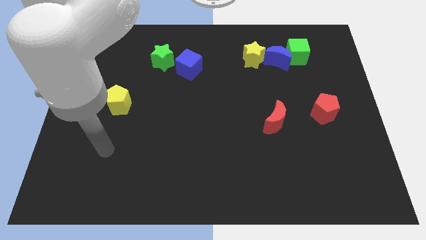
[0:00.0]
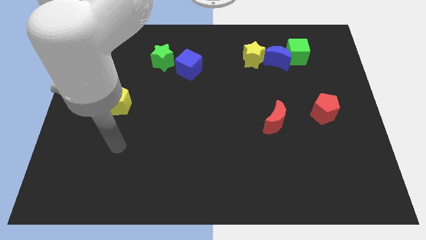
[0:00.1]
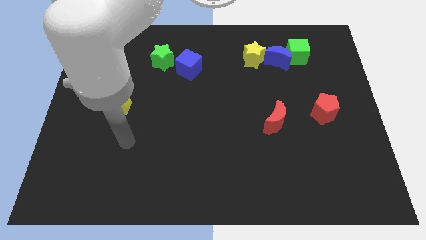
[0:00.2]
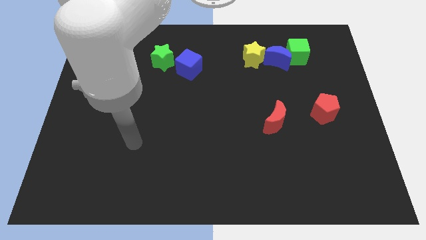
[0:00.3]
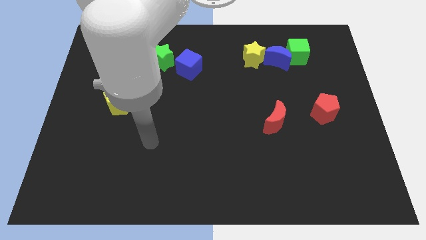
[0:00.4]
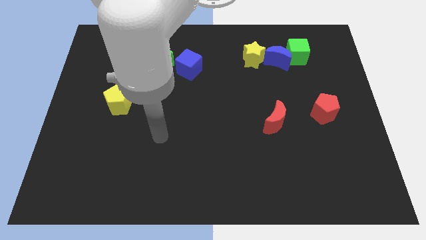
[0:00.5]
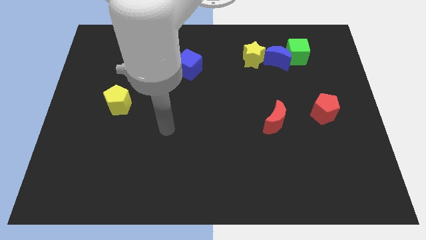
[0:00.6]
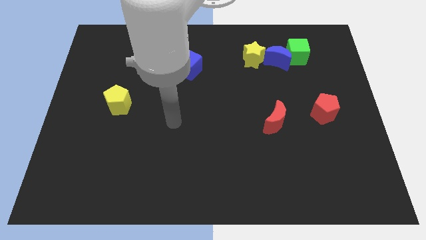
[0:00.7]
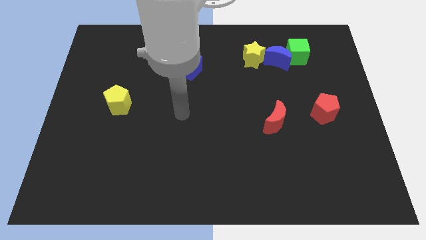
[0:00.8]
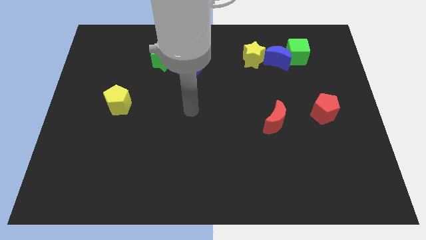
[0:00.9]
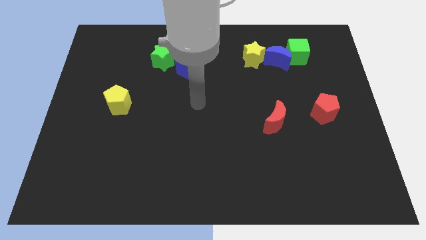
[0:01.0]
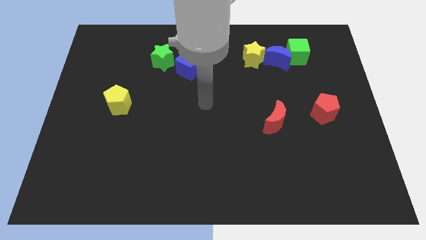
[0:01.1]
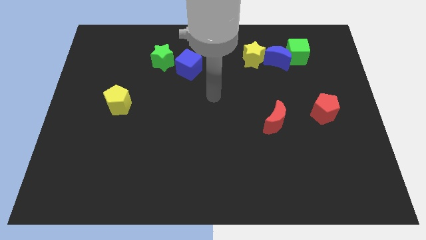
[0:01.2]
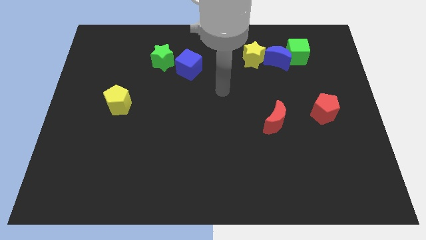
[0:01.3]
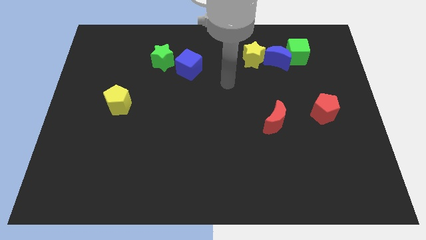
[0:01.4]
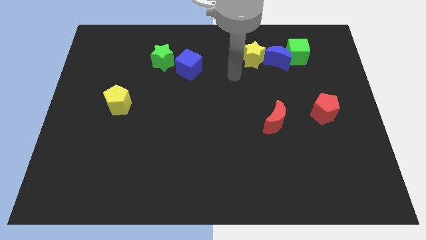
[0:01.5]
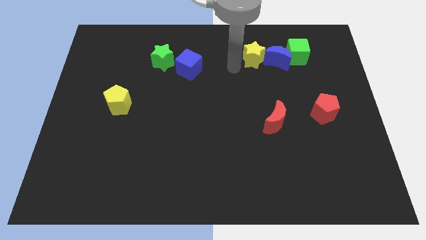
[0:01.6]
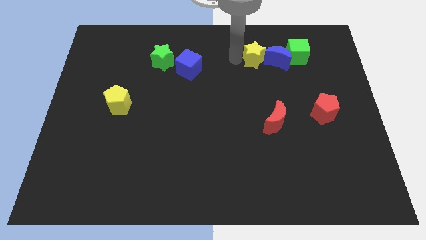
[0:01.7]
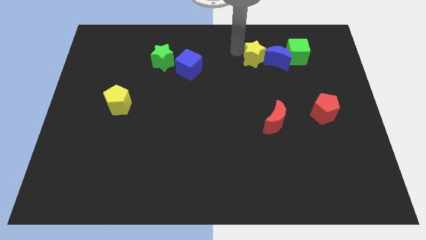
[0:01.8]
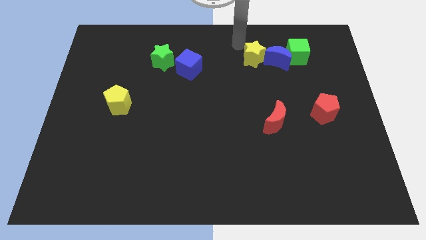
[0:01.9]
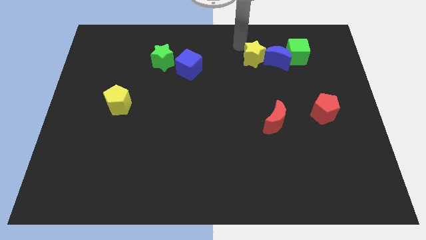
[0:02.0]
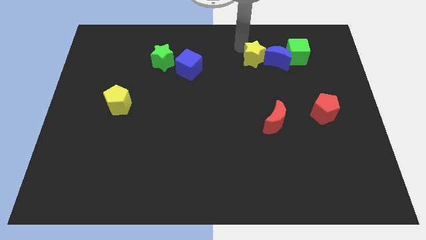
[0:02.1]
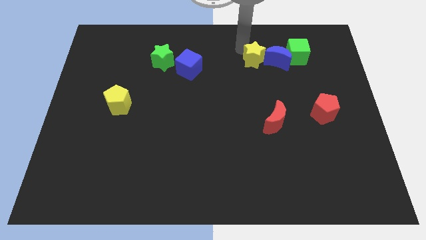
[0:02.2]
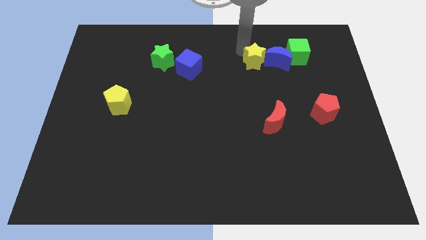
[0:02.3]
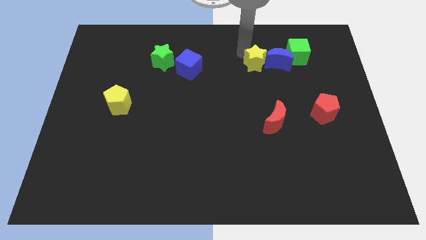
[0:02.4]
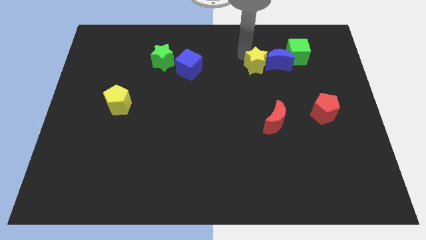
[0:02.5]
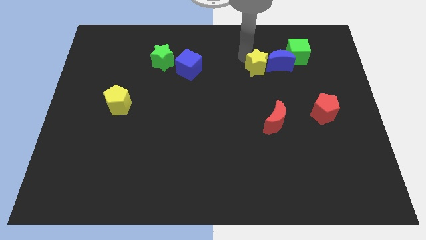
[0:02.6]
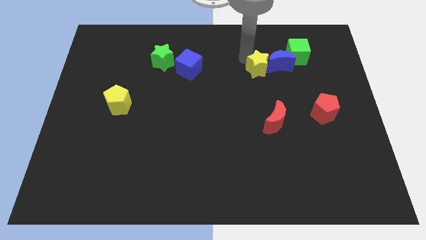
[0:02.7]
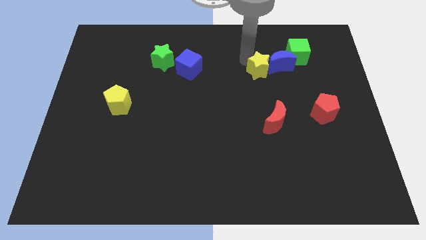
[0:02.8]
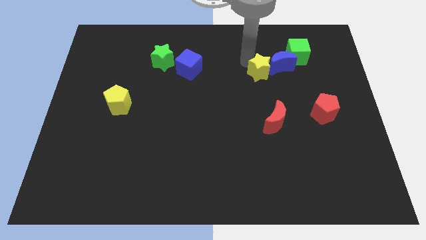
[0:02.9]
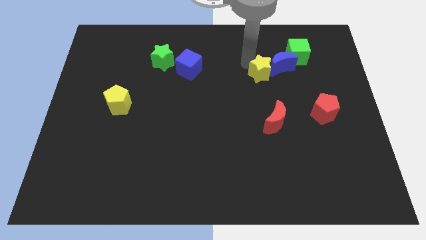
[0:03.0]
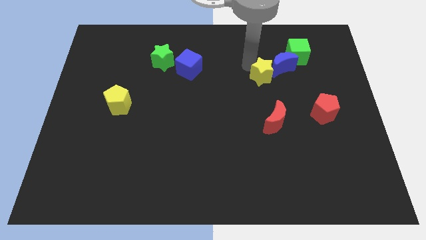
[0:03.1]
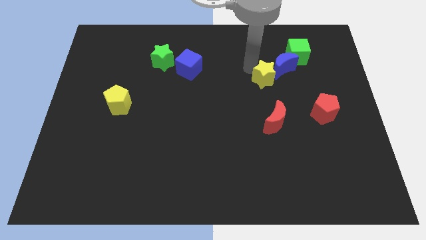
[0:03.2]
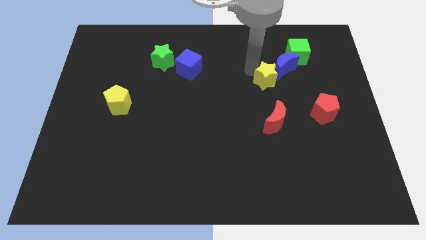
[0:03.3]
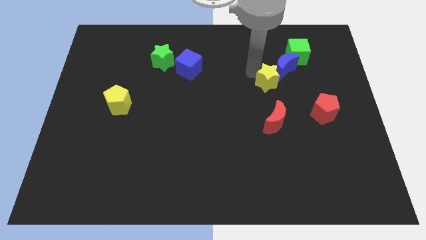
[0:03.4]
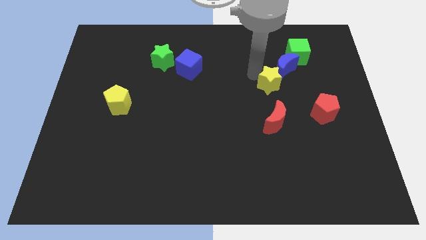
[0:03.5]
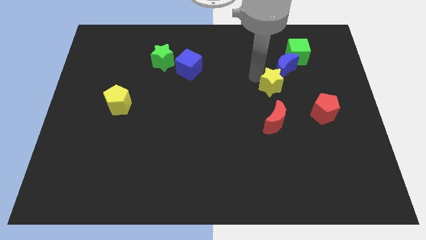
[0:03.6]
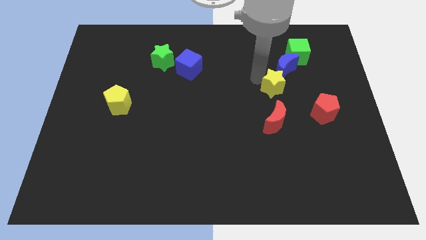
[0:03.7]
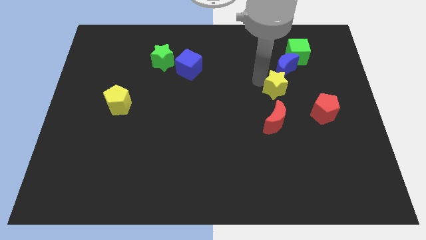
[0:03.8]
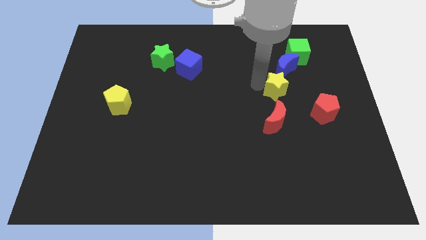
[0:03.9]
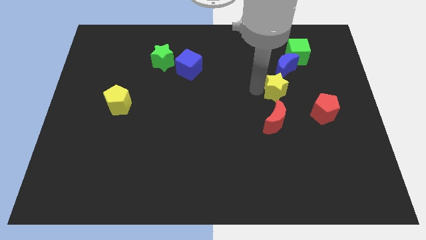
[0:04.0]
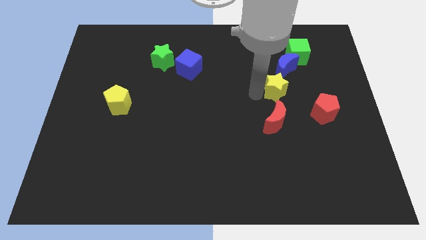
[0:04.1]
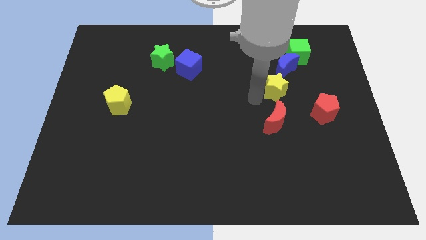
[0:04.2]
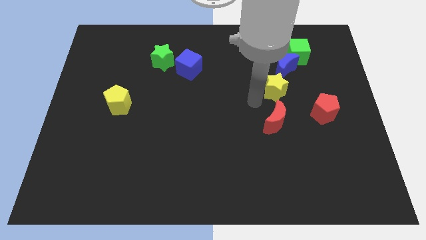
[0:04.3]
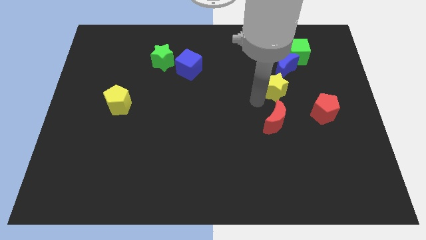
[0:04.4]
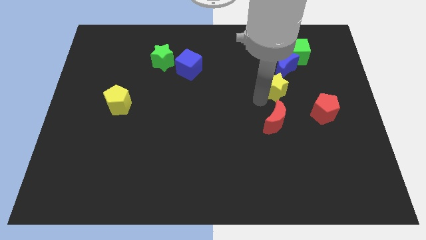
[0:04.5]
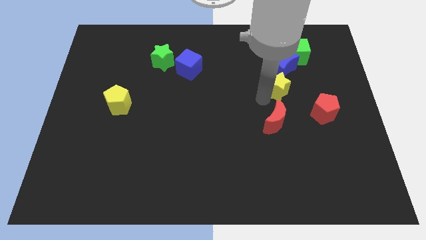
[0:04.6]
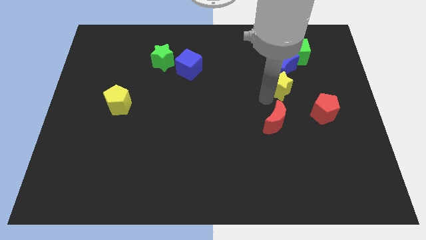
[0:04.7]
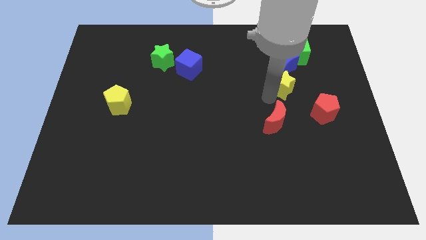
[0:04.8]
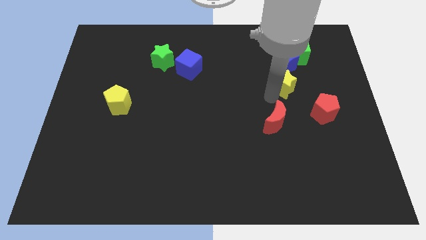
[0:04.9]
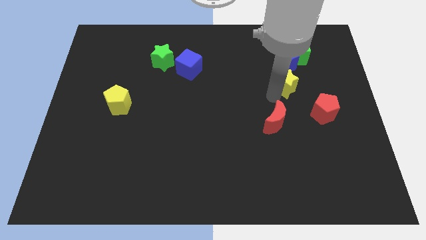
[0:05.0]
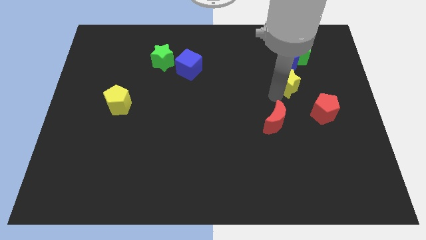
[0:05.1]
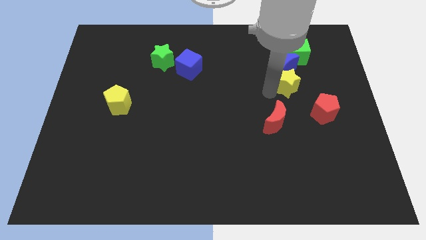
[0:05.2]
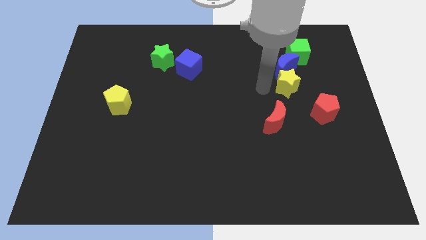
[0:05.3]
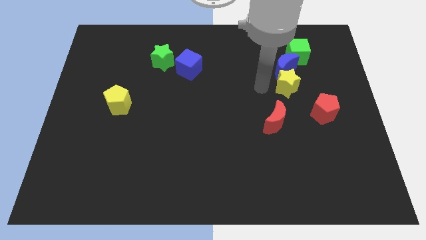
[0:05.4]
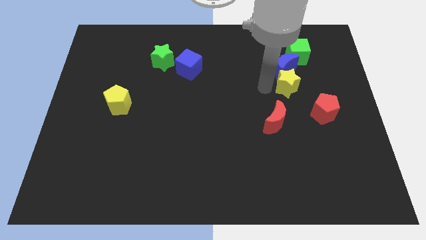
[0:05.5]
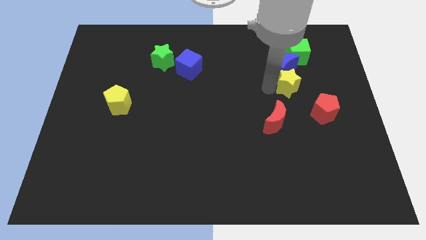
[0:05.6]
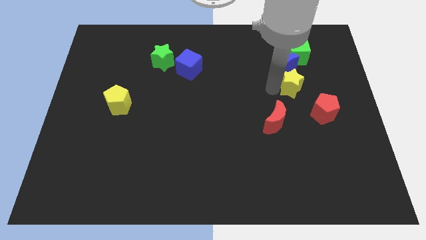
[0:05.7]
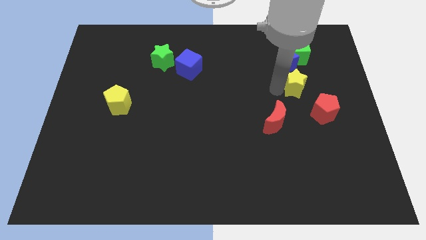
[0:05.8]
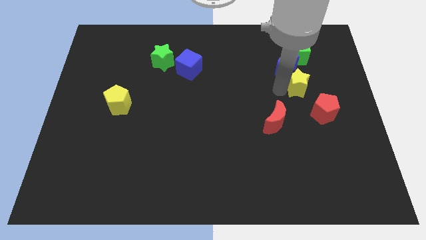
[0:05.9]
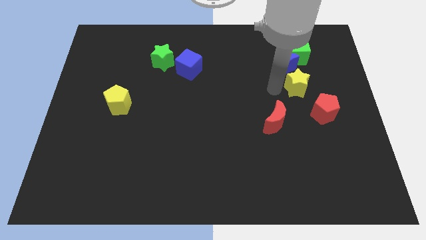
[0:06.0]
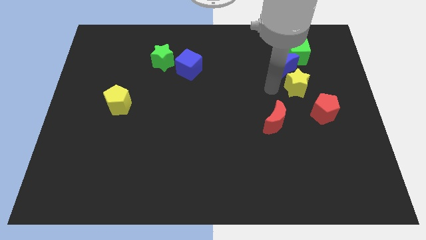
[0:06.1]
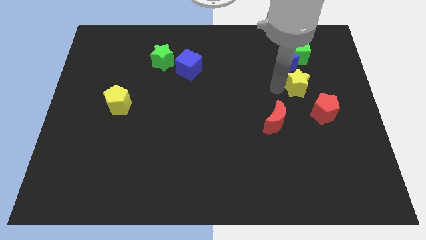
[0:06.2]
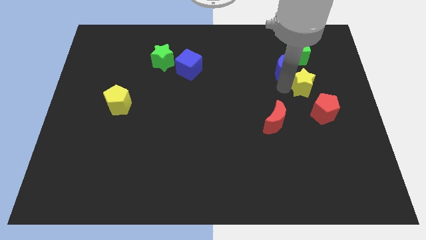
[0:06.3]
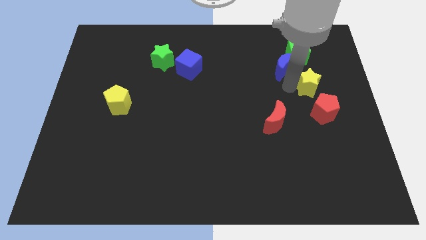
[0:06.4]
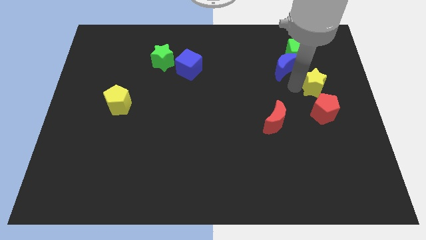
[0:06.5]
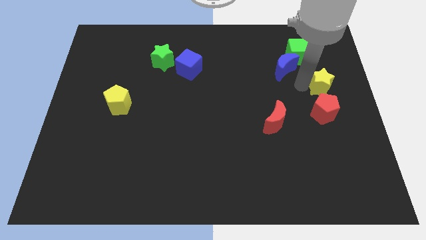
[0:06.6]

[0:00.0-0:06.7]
push the yellow star to the right side
